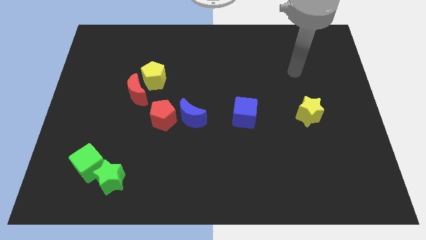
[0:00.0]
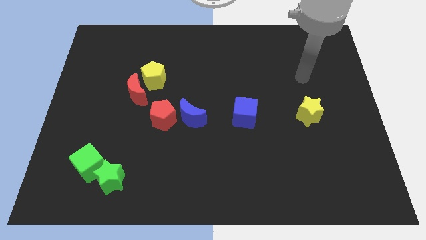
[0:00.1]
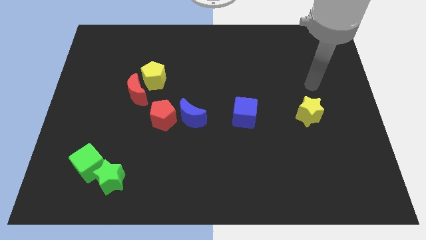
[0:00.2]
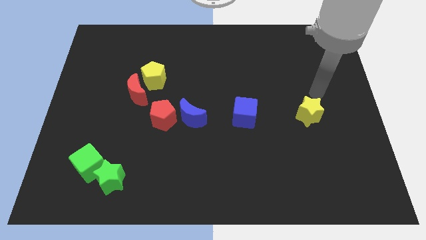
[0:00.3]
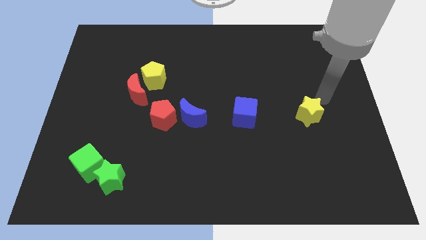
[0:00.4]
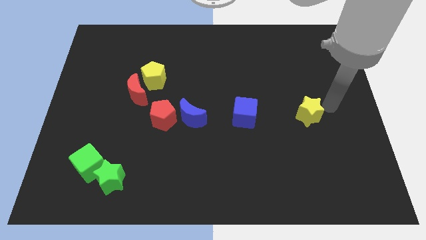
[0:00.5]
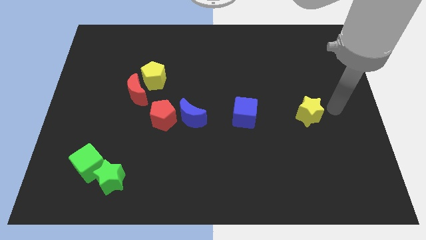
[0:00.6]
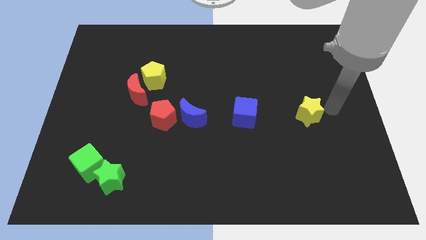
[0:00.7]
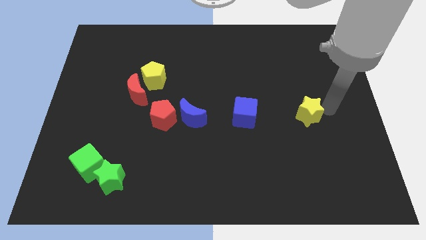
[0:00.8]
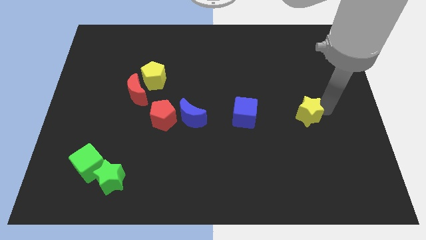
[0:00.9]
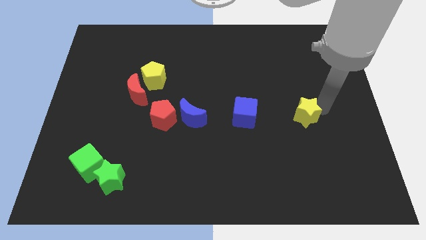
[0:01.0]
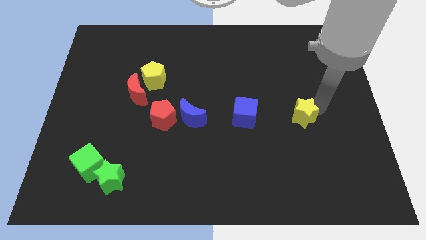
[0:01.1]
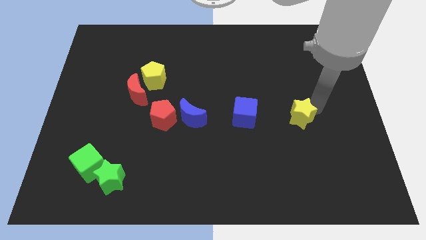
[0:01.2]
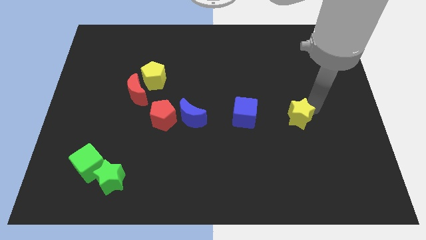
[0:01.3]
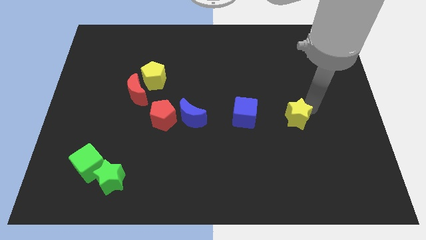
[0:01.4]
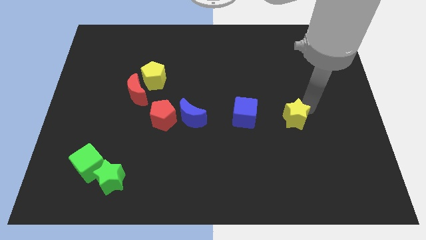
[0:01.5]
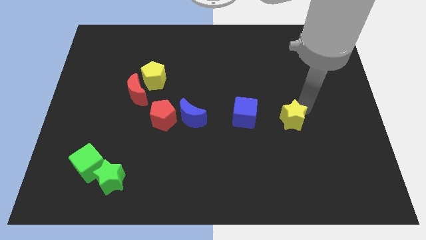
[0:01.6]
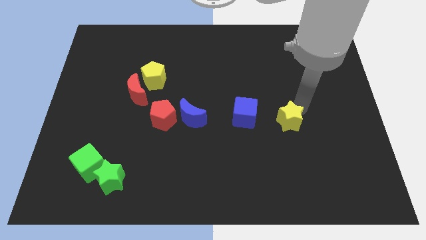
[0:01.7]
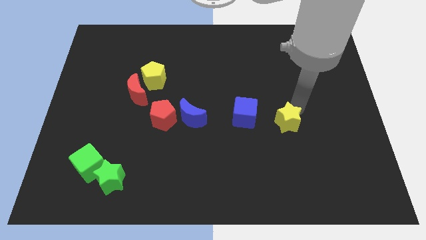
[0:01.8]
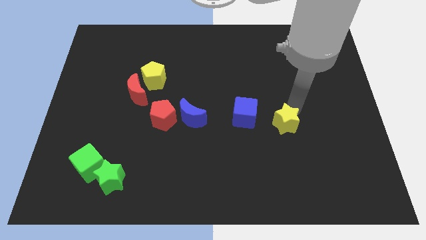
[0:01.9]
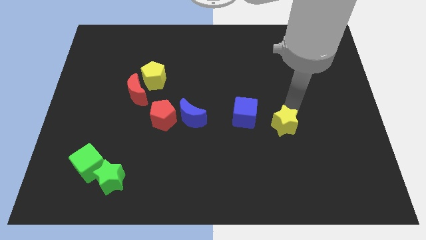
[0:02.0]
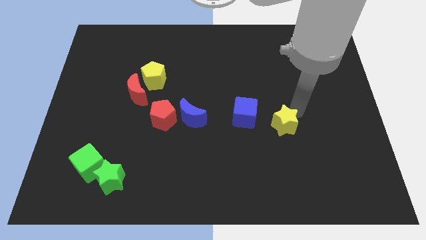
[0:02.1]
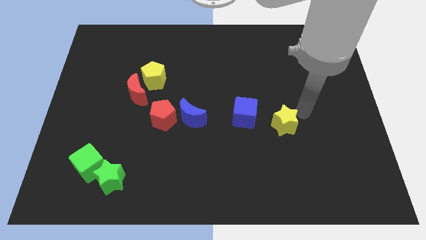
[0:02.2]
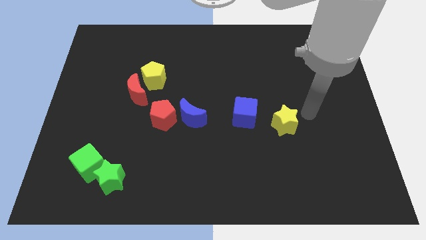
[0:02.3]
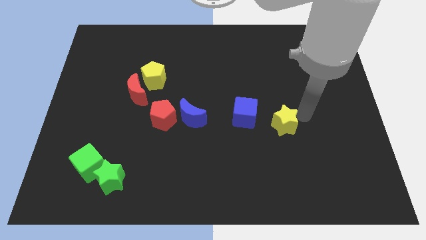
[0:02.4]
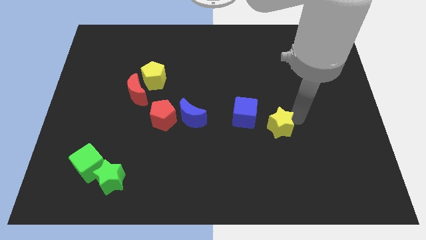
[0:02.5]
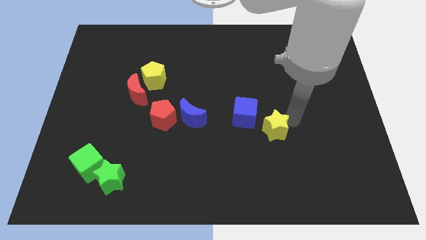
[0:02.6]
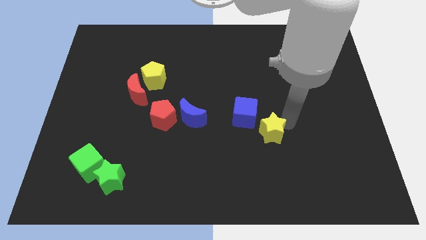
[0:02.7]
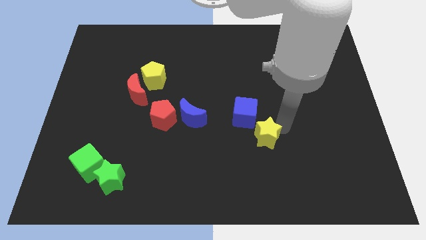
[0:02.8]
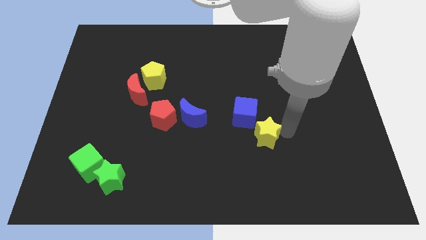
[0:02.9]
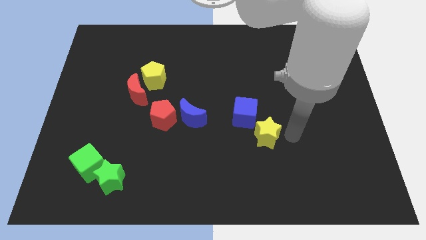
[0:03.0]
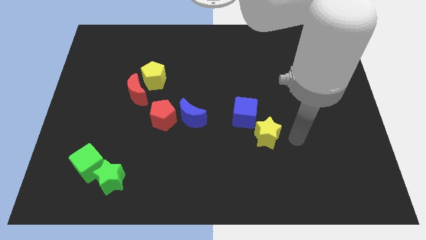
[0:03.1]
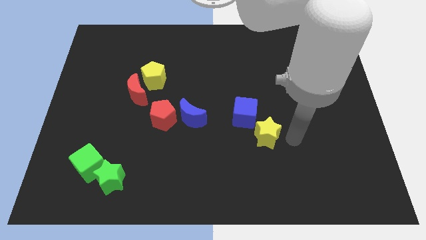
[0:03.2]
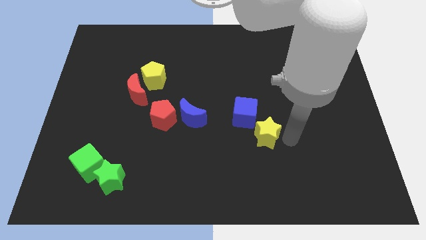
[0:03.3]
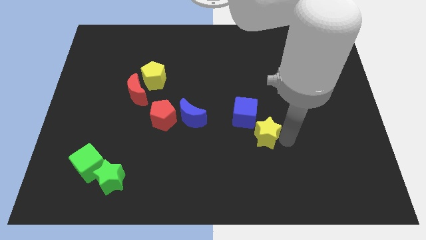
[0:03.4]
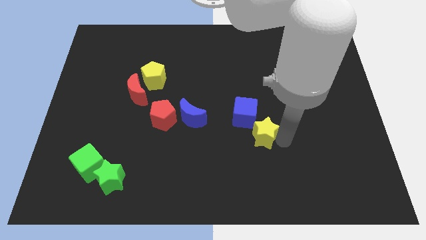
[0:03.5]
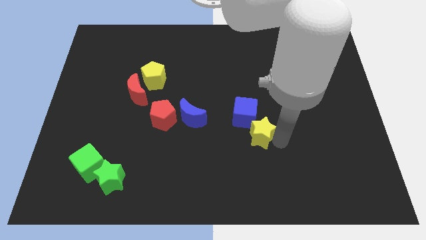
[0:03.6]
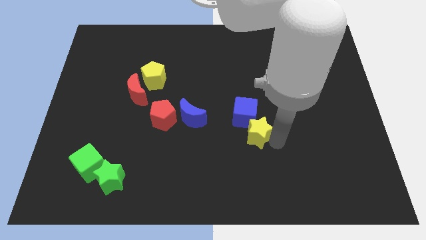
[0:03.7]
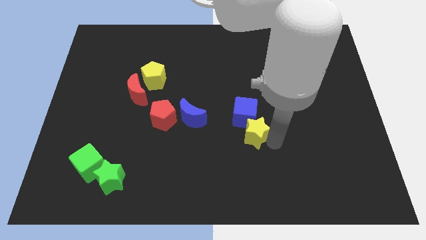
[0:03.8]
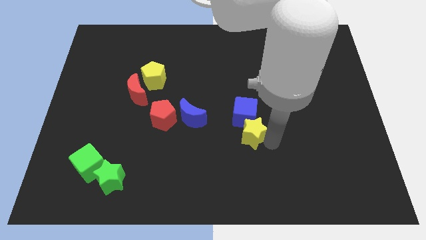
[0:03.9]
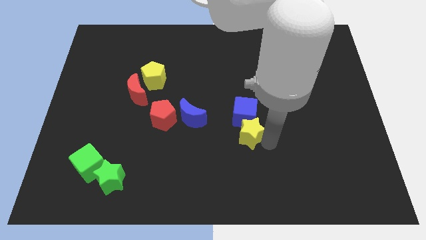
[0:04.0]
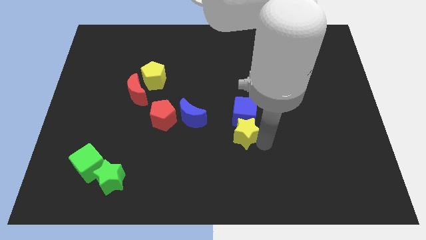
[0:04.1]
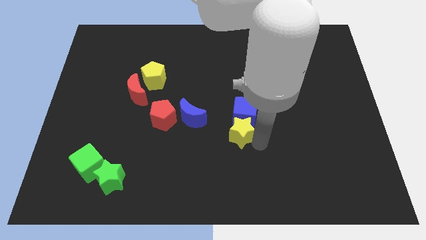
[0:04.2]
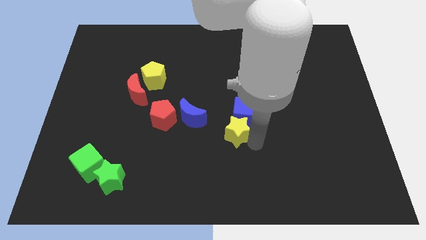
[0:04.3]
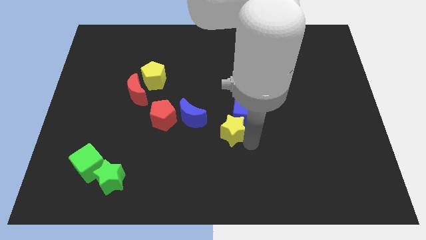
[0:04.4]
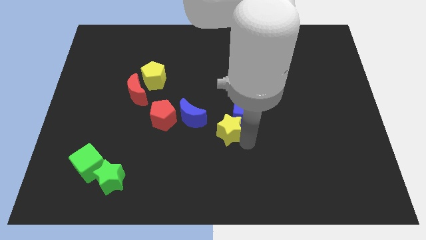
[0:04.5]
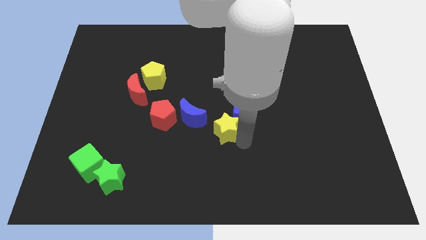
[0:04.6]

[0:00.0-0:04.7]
slide the yellow star to the right of the red pentagon

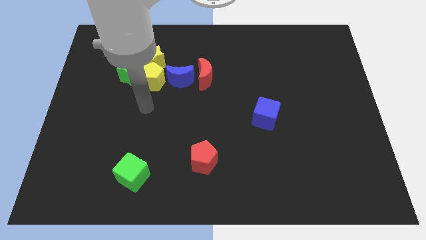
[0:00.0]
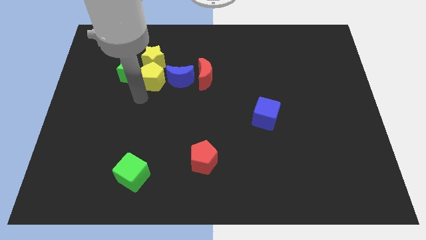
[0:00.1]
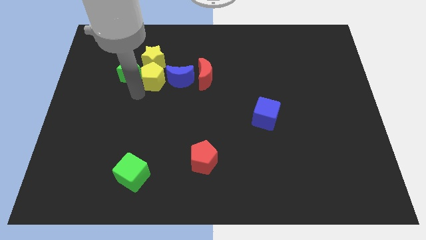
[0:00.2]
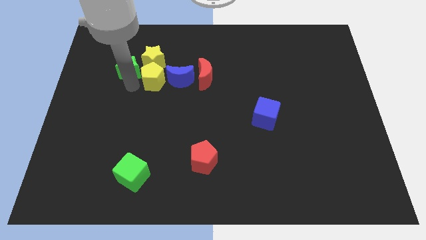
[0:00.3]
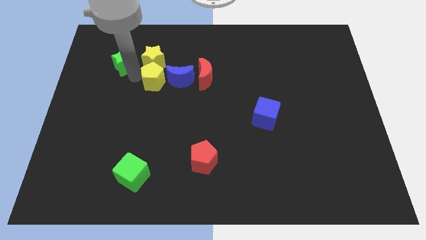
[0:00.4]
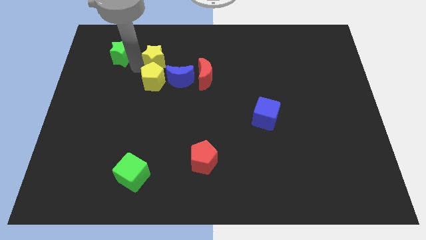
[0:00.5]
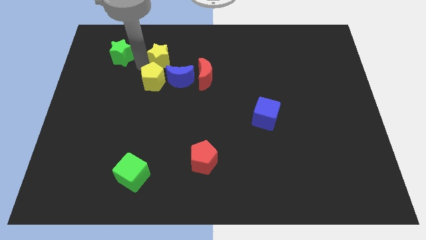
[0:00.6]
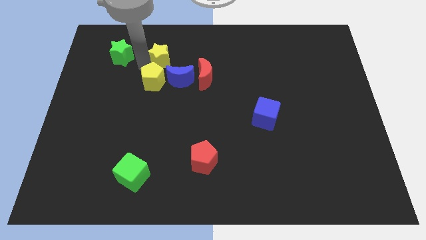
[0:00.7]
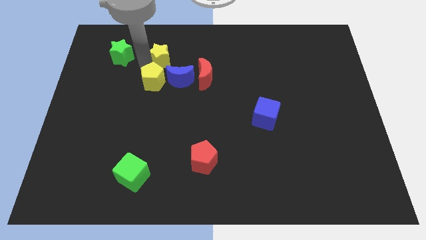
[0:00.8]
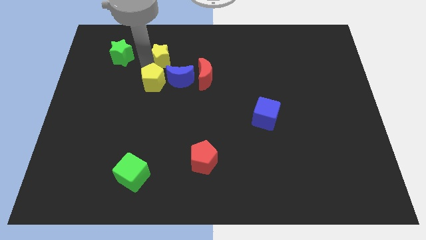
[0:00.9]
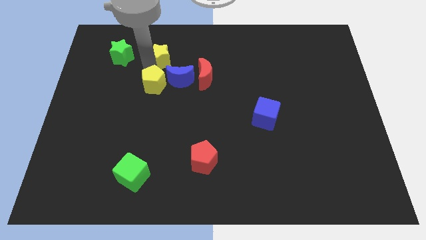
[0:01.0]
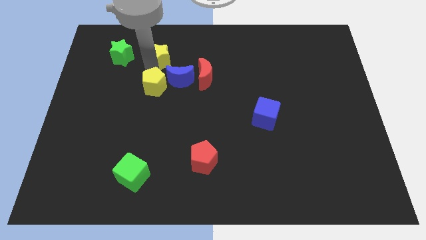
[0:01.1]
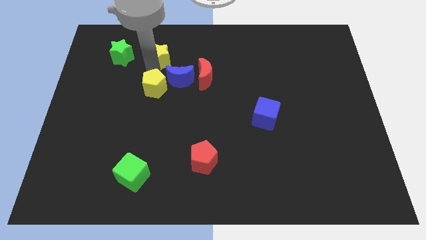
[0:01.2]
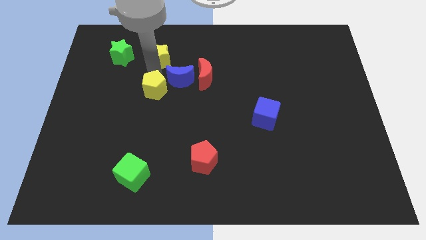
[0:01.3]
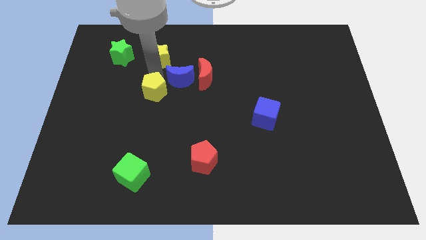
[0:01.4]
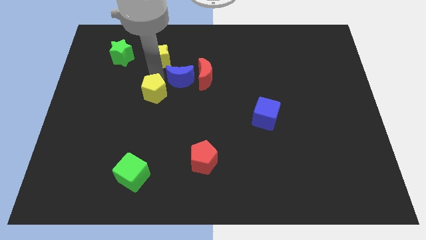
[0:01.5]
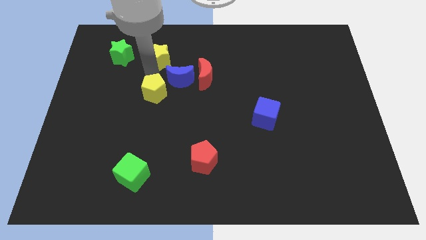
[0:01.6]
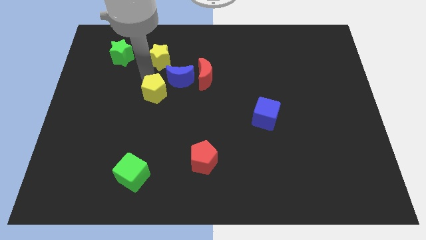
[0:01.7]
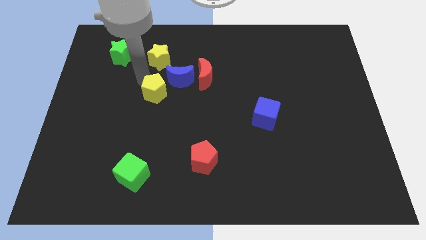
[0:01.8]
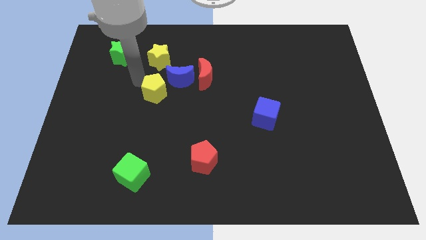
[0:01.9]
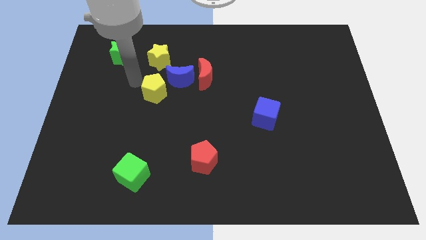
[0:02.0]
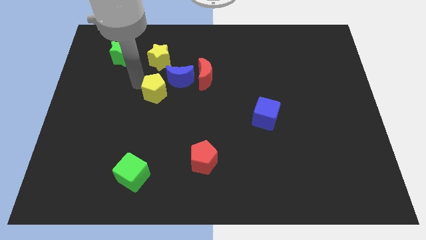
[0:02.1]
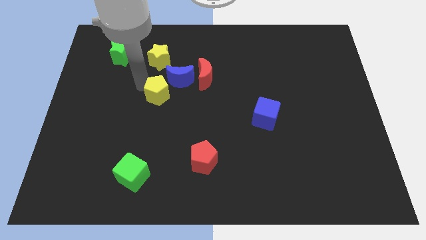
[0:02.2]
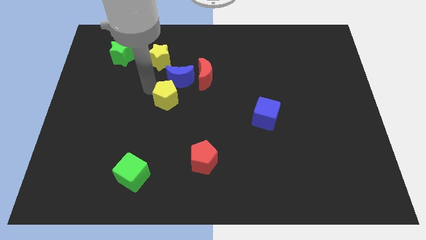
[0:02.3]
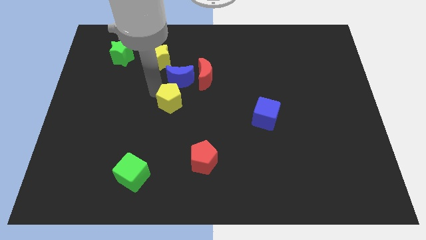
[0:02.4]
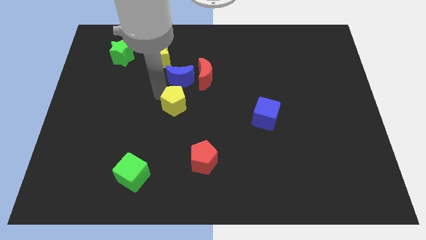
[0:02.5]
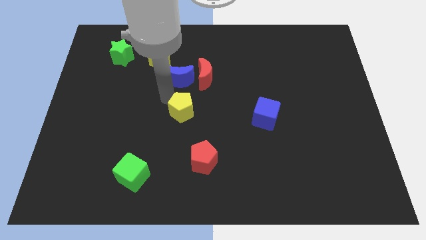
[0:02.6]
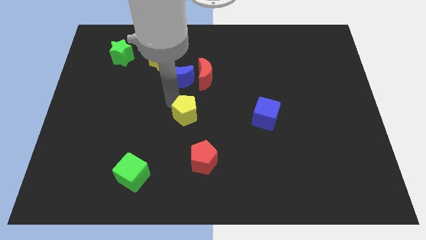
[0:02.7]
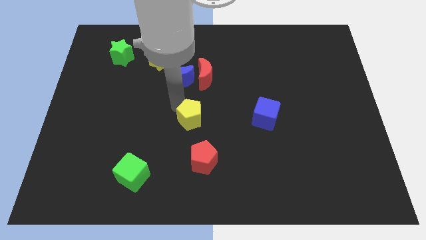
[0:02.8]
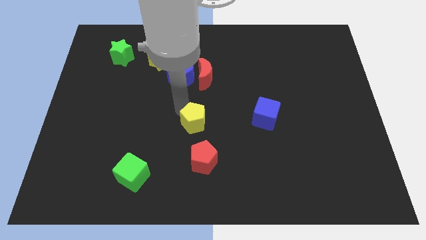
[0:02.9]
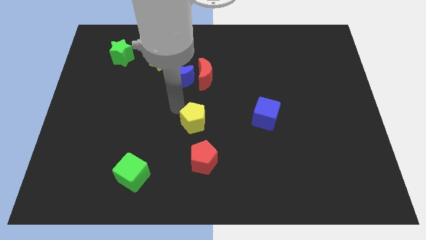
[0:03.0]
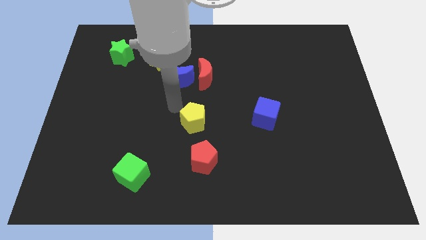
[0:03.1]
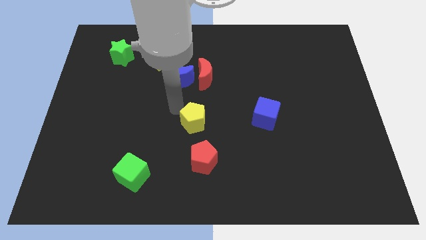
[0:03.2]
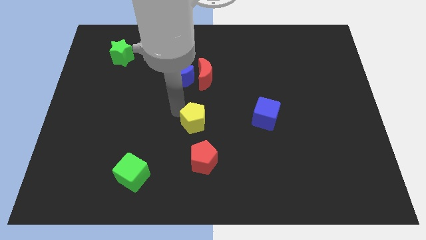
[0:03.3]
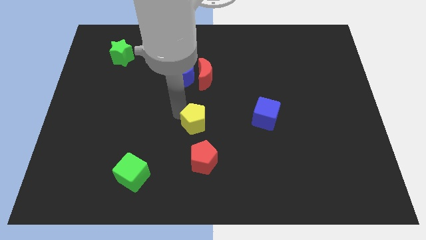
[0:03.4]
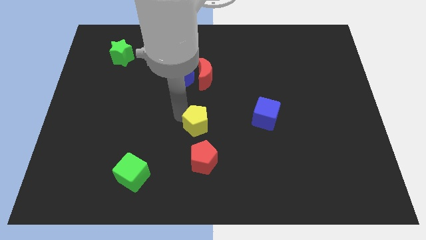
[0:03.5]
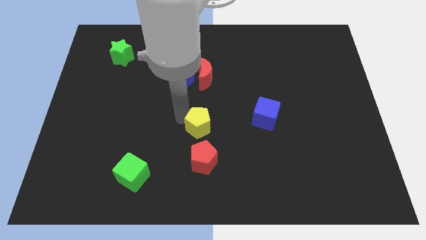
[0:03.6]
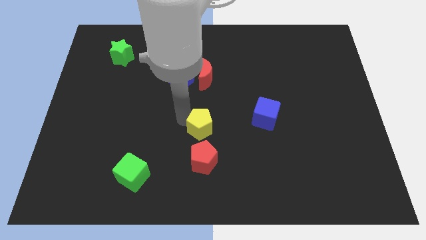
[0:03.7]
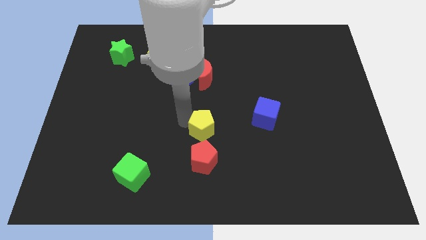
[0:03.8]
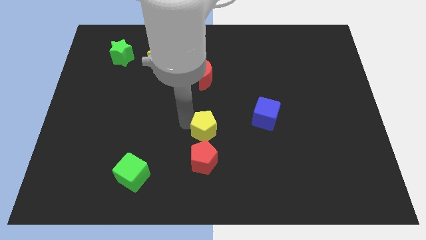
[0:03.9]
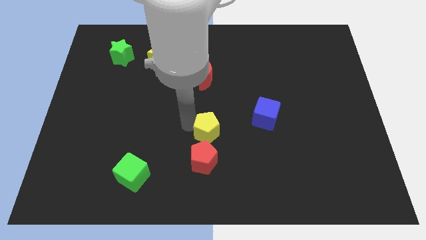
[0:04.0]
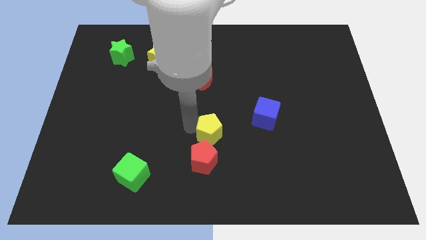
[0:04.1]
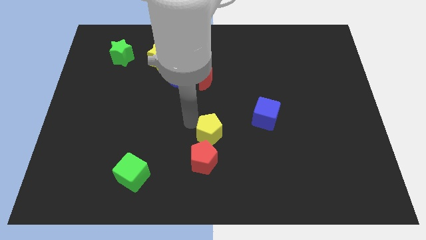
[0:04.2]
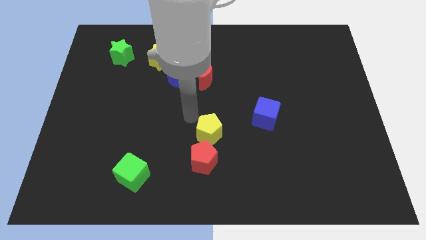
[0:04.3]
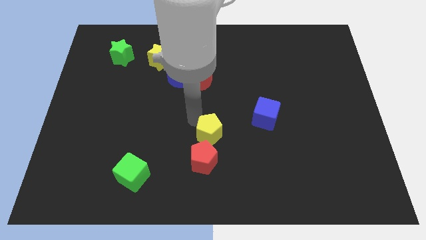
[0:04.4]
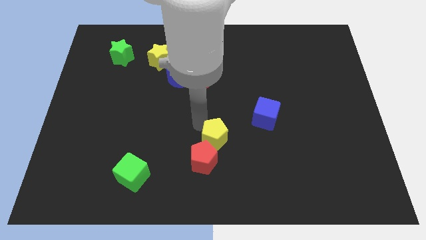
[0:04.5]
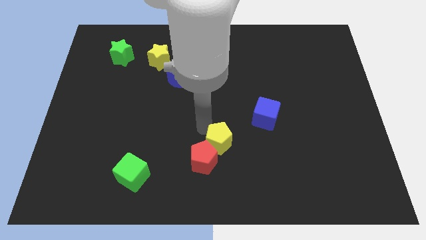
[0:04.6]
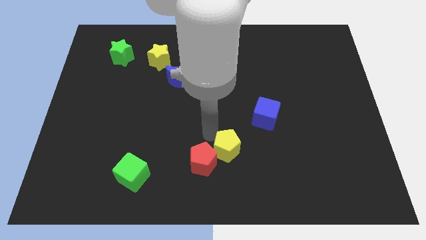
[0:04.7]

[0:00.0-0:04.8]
move the yellow pentagon to the right side of the red pentagon
